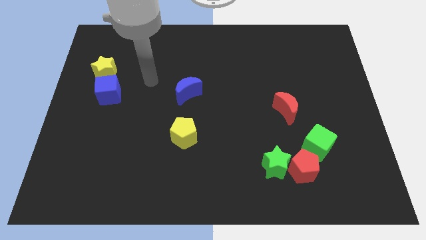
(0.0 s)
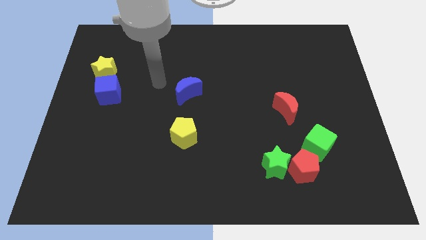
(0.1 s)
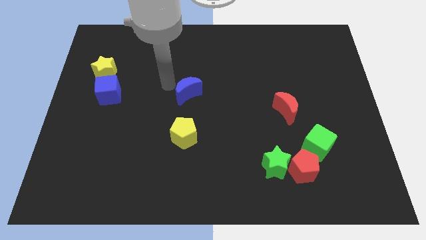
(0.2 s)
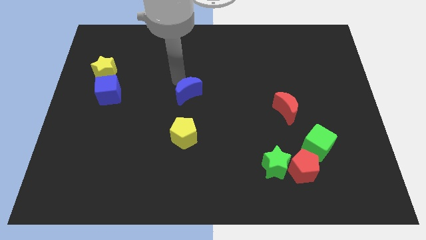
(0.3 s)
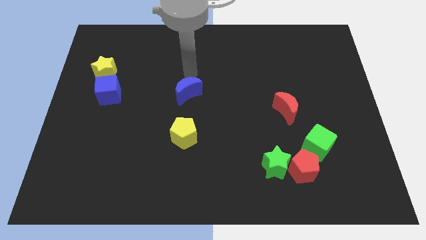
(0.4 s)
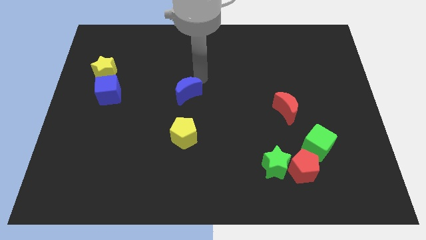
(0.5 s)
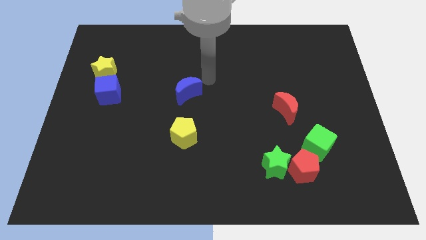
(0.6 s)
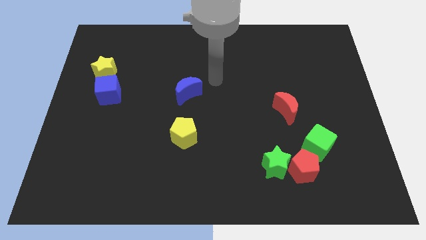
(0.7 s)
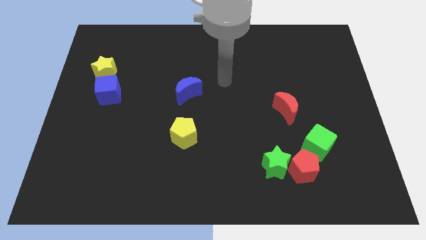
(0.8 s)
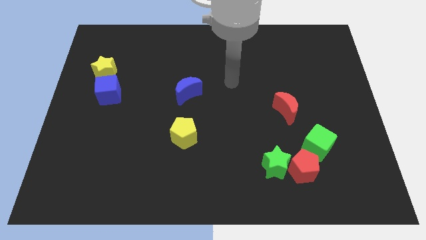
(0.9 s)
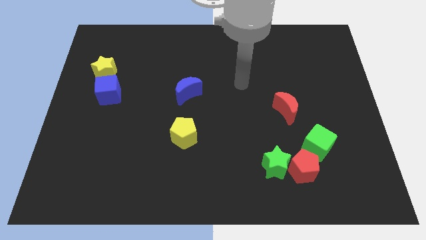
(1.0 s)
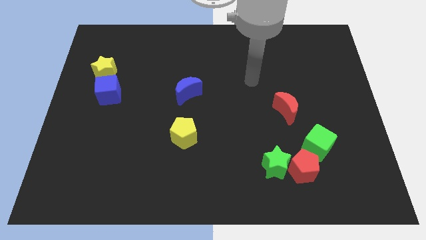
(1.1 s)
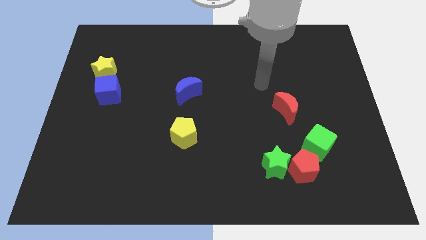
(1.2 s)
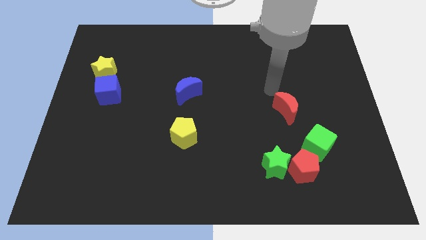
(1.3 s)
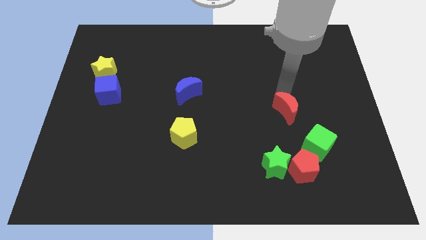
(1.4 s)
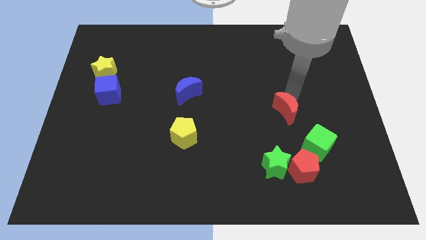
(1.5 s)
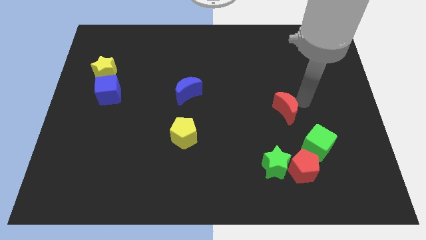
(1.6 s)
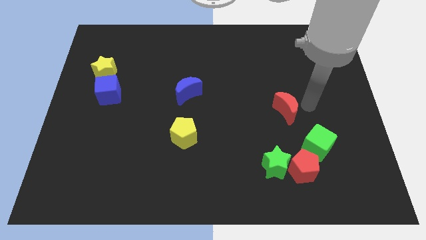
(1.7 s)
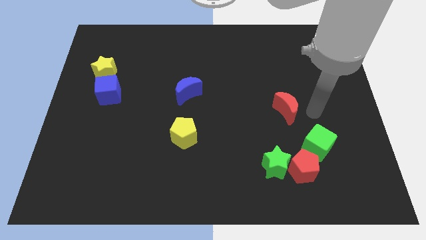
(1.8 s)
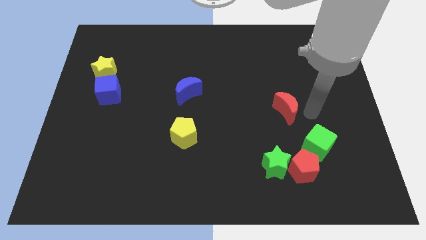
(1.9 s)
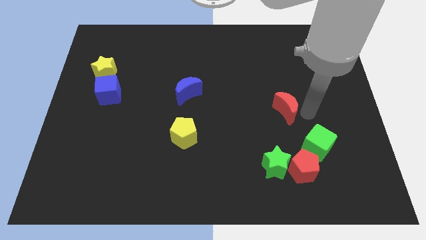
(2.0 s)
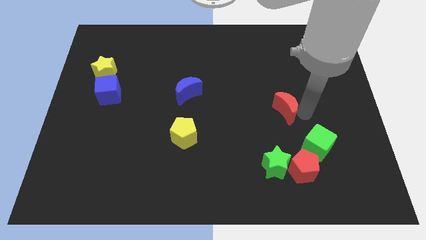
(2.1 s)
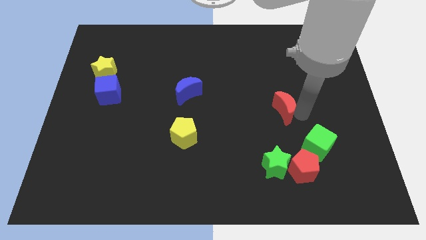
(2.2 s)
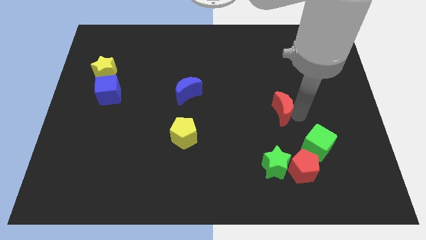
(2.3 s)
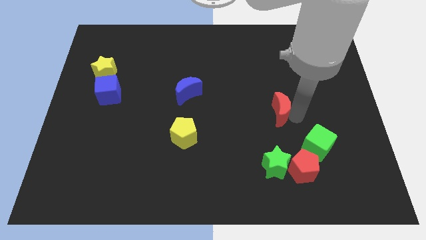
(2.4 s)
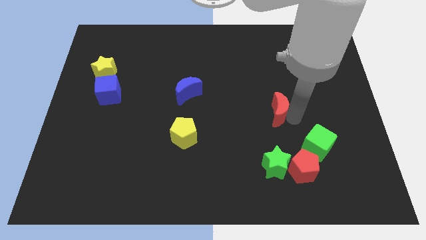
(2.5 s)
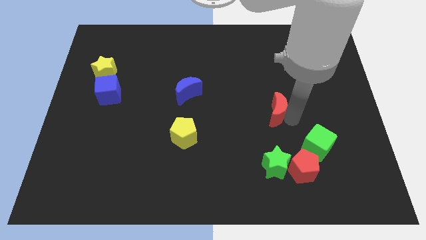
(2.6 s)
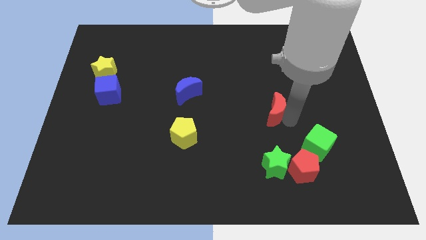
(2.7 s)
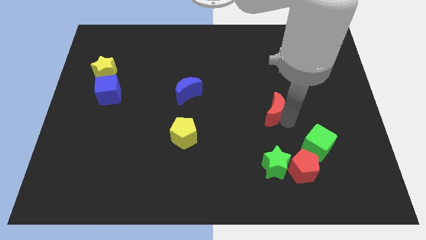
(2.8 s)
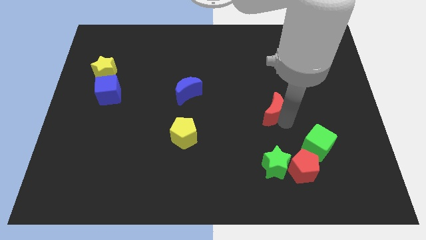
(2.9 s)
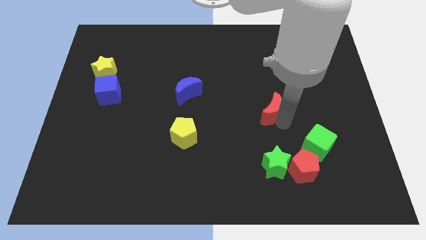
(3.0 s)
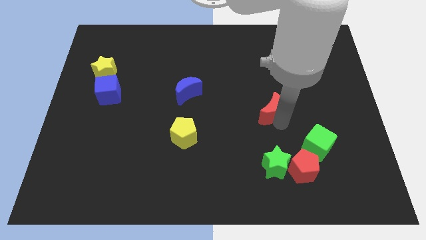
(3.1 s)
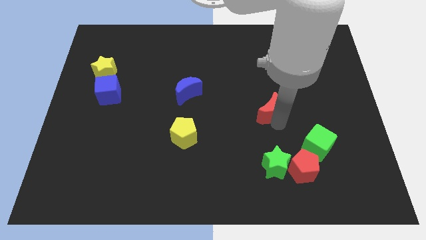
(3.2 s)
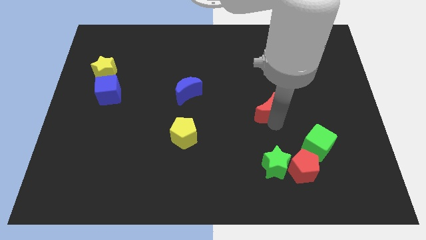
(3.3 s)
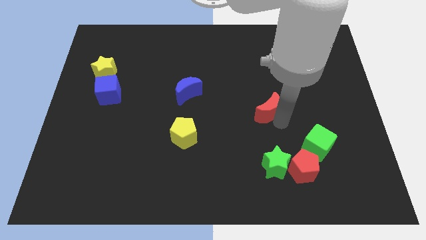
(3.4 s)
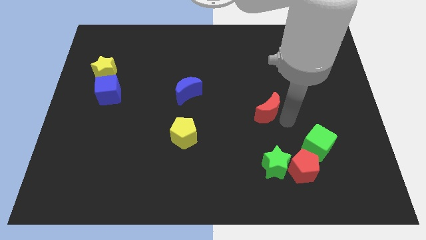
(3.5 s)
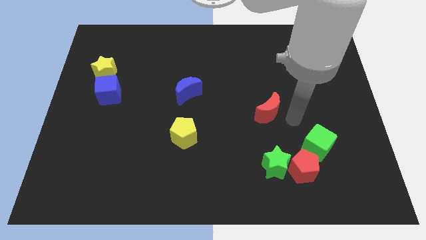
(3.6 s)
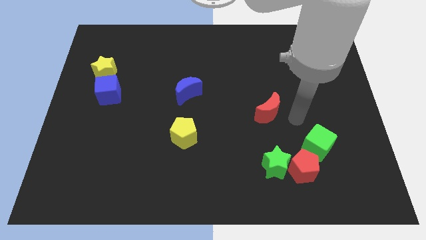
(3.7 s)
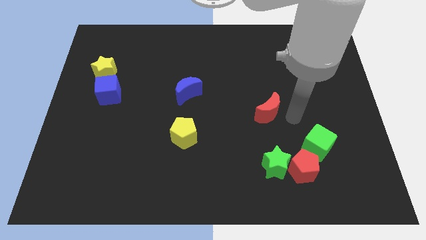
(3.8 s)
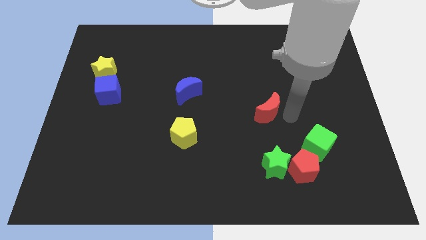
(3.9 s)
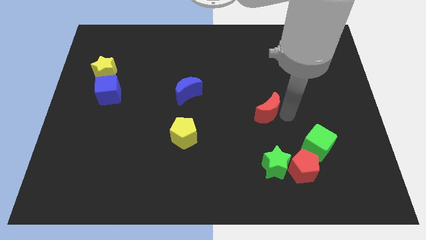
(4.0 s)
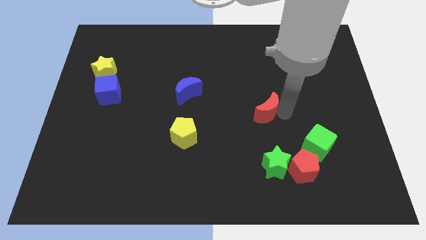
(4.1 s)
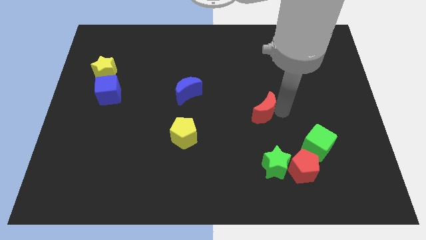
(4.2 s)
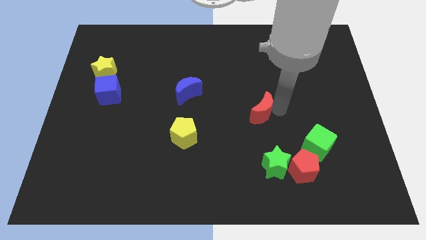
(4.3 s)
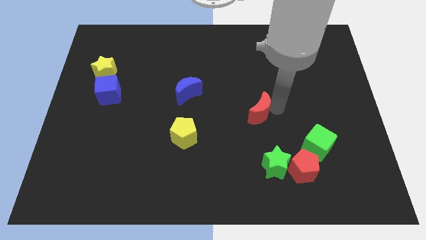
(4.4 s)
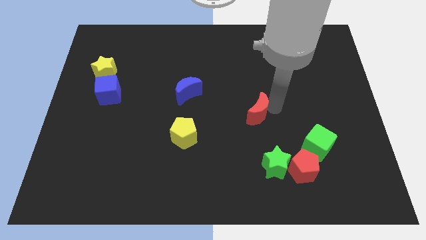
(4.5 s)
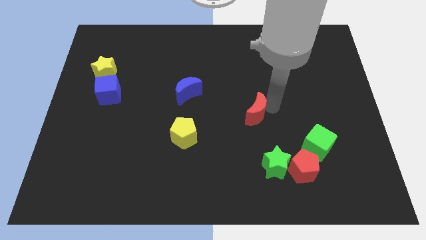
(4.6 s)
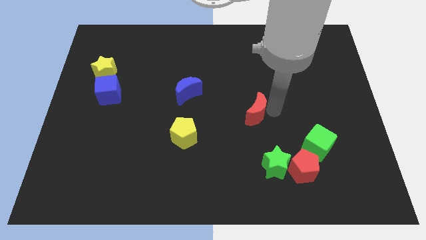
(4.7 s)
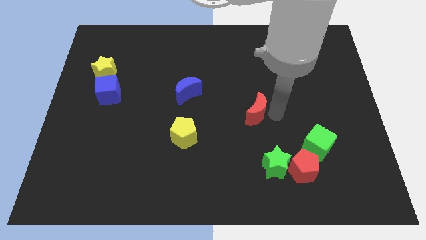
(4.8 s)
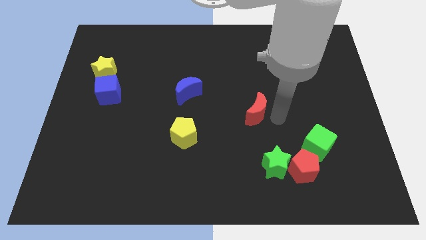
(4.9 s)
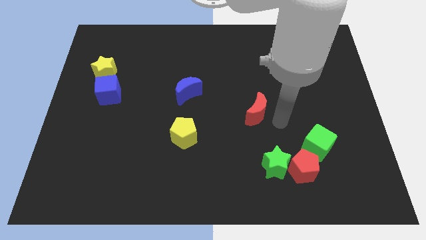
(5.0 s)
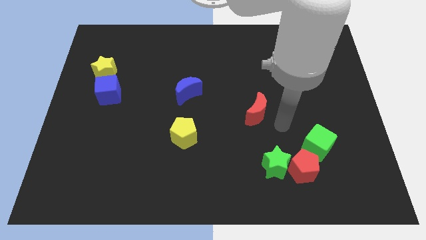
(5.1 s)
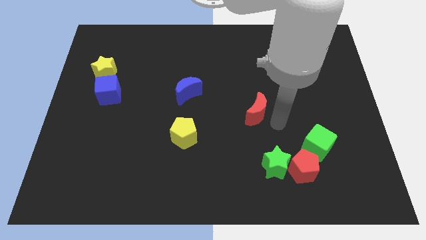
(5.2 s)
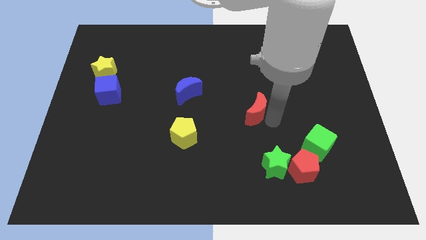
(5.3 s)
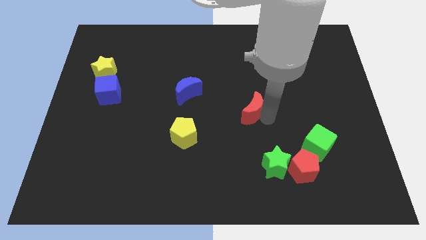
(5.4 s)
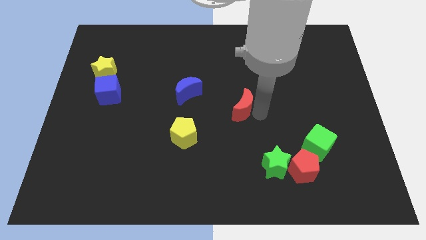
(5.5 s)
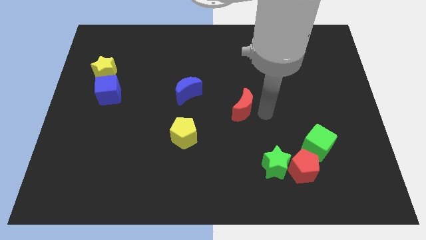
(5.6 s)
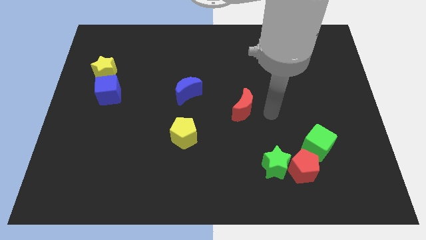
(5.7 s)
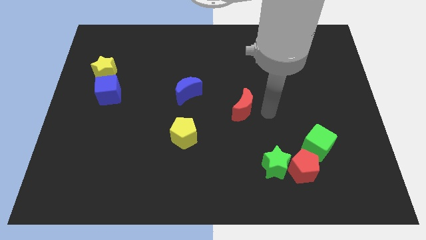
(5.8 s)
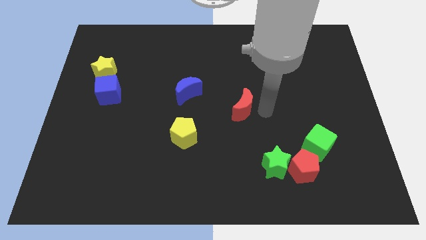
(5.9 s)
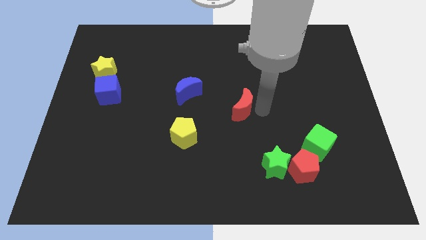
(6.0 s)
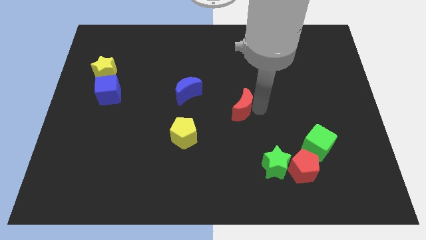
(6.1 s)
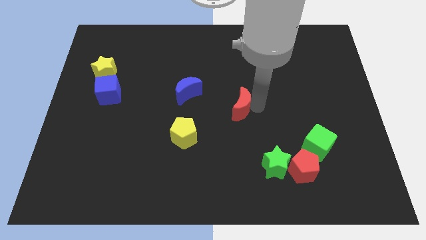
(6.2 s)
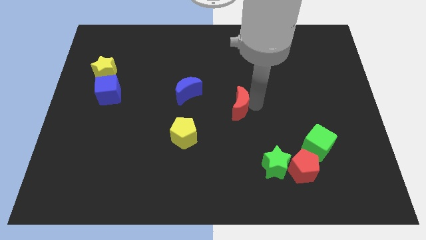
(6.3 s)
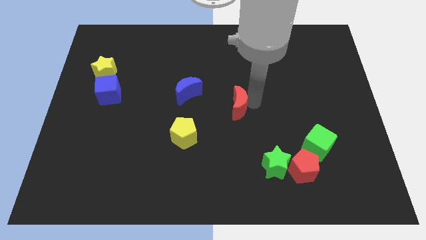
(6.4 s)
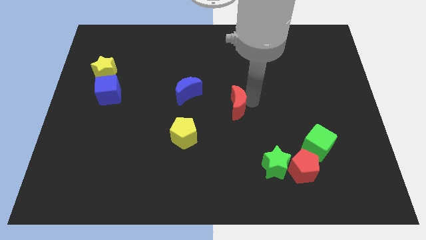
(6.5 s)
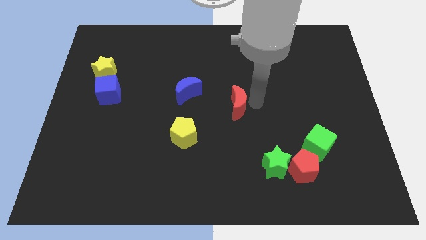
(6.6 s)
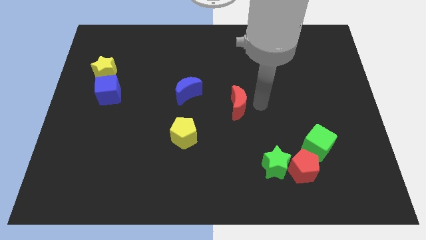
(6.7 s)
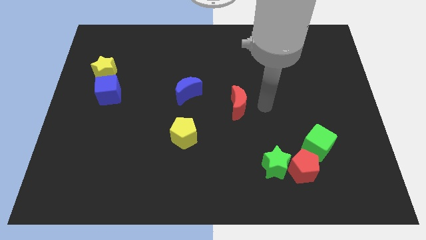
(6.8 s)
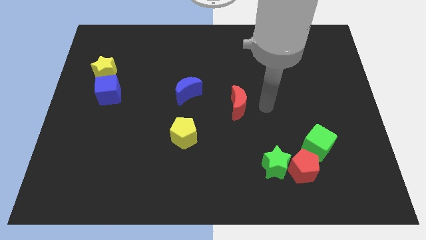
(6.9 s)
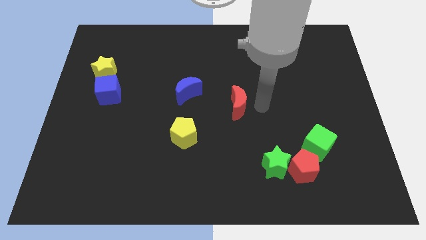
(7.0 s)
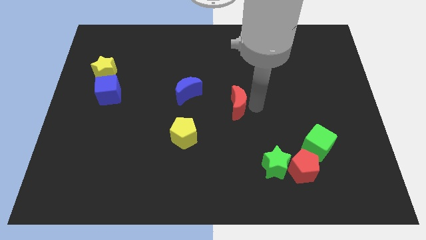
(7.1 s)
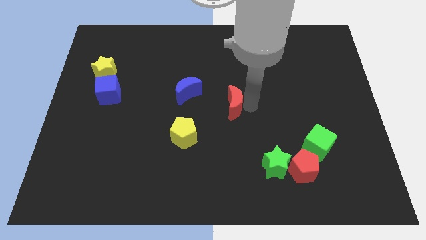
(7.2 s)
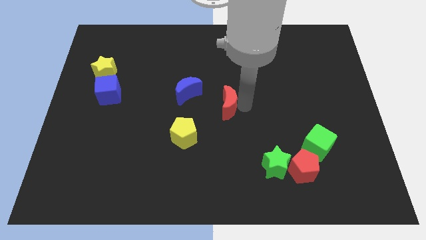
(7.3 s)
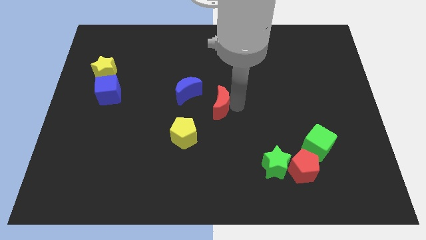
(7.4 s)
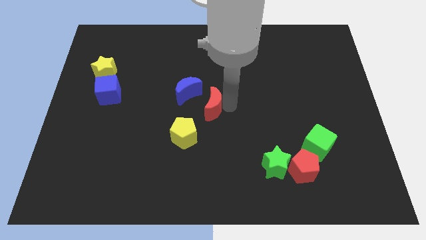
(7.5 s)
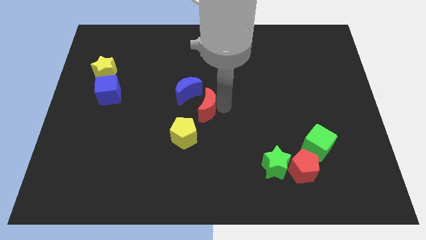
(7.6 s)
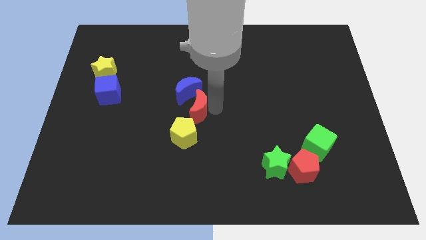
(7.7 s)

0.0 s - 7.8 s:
push the red moon to the left

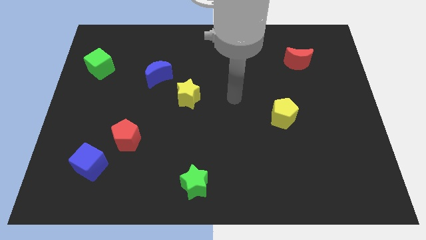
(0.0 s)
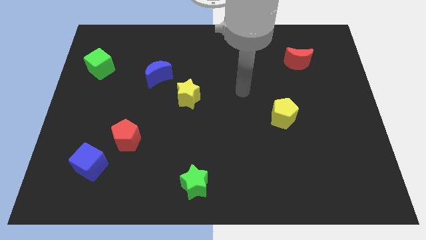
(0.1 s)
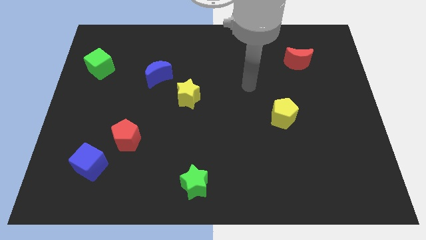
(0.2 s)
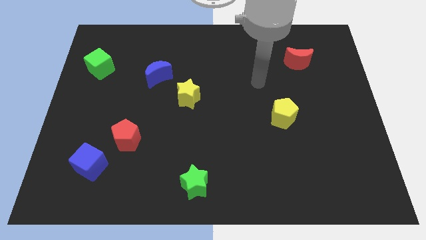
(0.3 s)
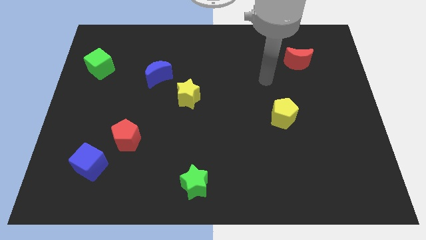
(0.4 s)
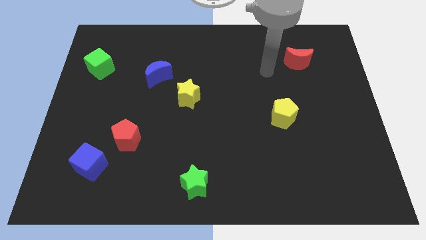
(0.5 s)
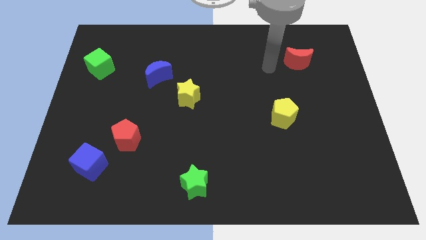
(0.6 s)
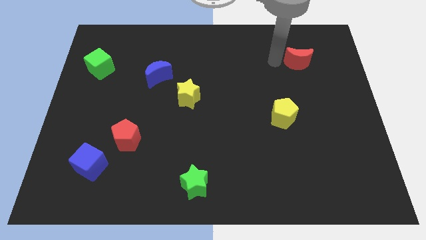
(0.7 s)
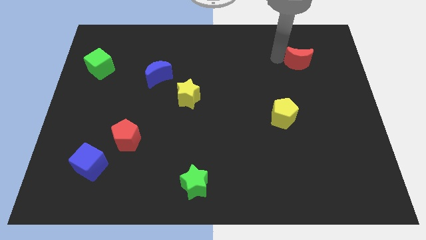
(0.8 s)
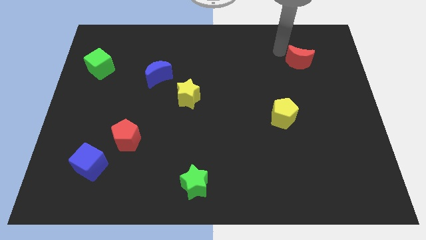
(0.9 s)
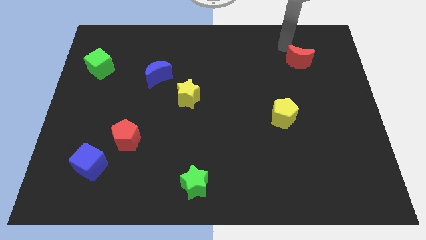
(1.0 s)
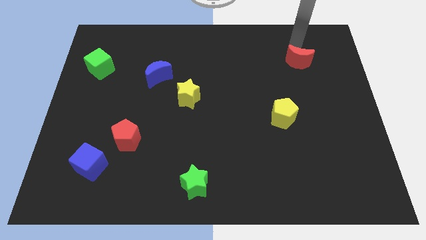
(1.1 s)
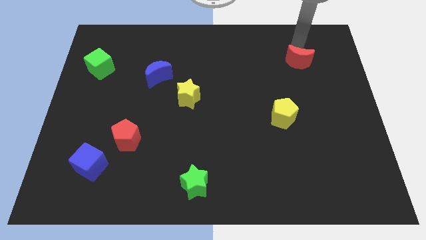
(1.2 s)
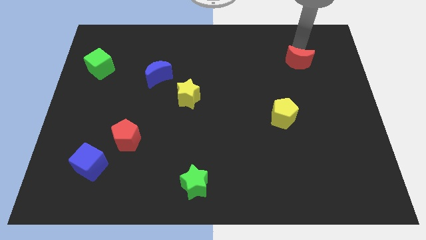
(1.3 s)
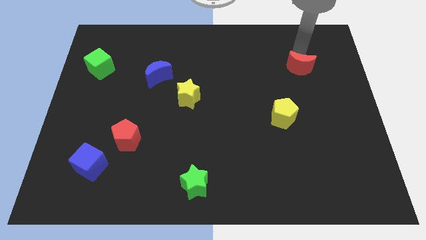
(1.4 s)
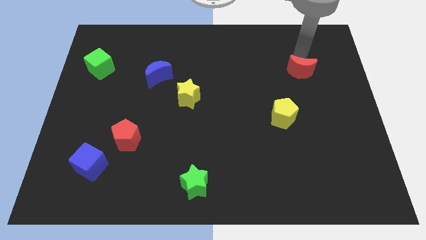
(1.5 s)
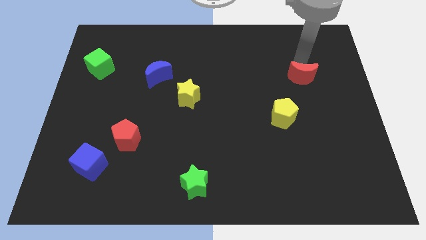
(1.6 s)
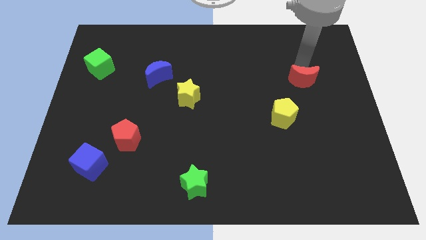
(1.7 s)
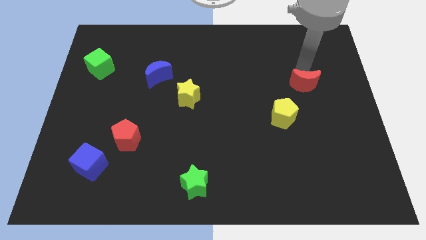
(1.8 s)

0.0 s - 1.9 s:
slide the red moon a little downwards
